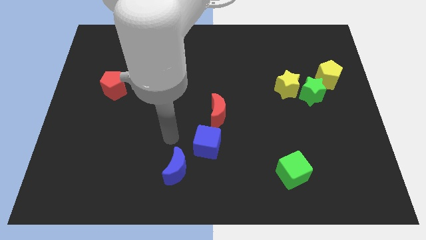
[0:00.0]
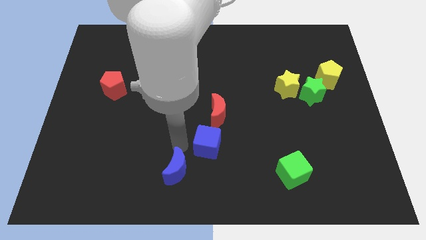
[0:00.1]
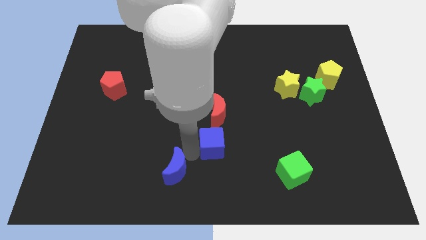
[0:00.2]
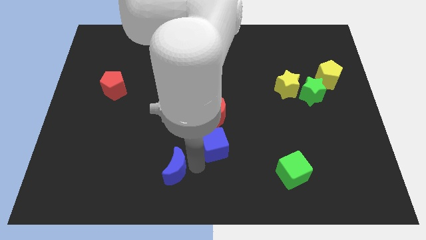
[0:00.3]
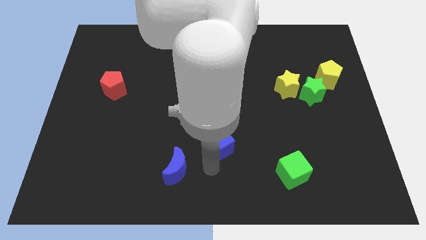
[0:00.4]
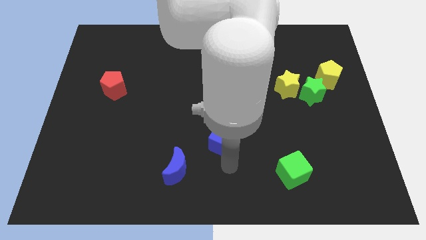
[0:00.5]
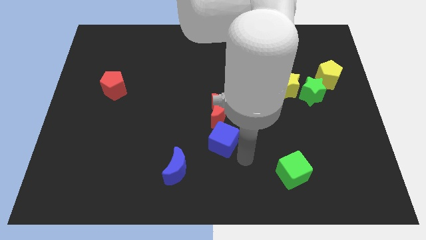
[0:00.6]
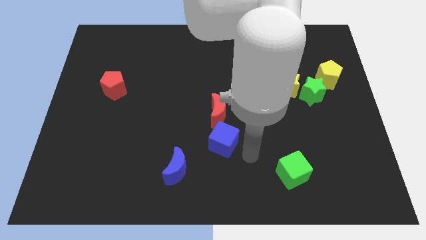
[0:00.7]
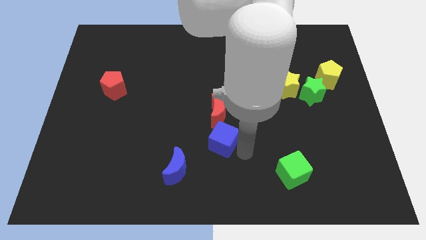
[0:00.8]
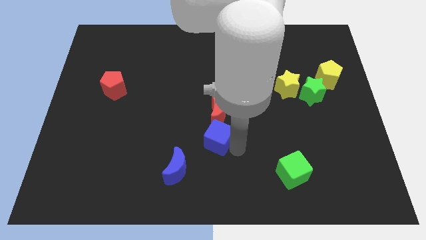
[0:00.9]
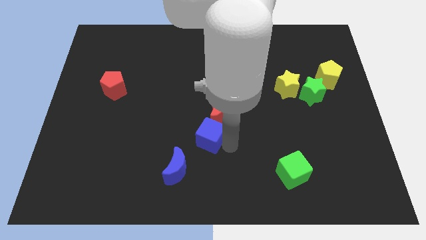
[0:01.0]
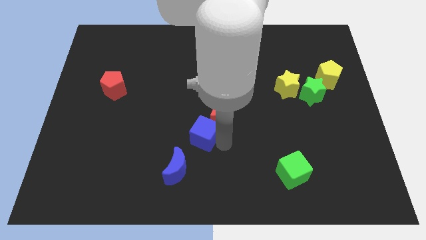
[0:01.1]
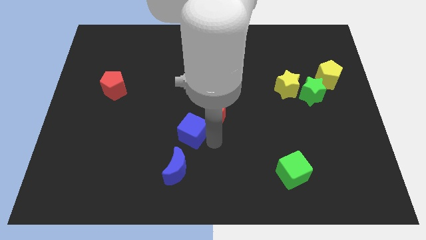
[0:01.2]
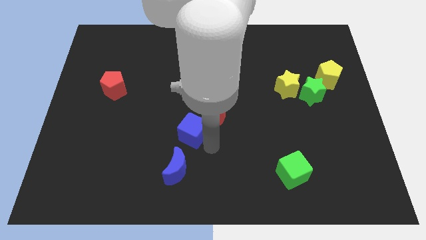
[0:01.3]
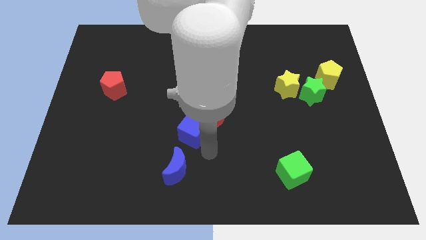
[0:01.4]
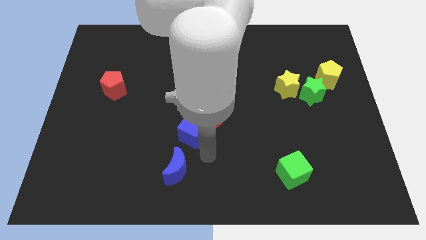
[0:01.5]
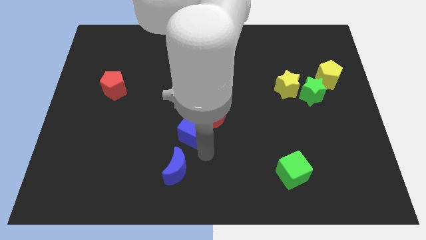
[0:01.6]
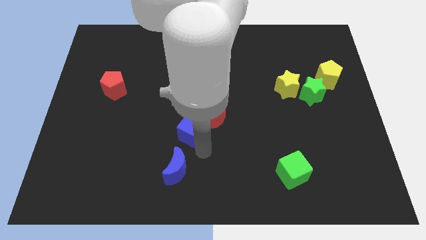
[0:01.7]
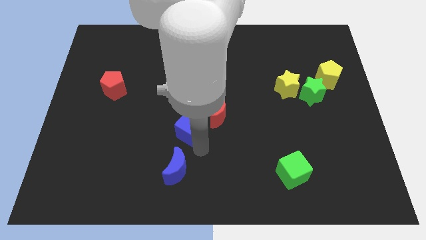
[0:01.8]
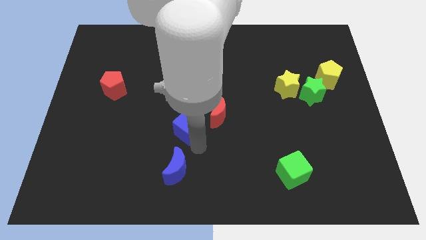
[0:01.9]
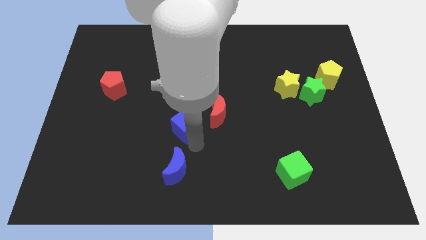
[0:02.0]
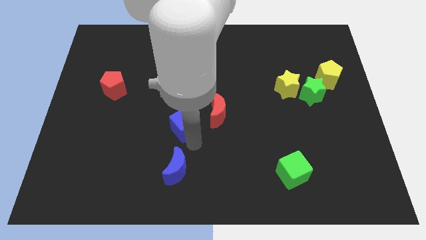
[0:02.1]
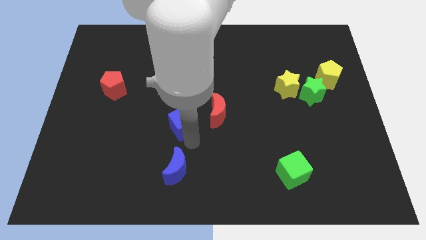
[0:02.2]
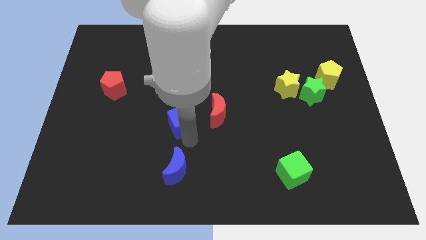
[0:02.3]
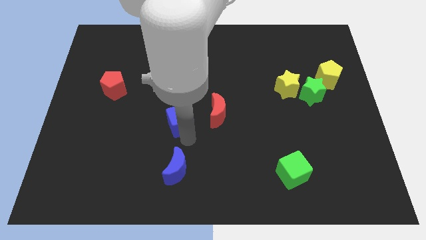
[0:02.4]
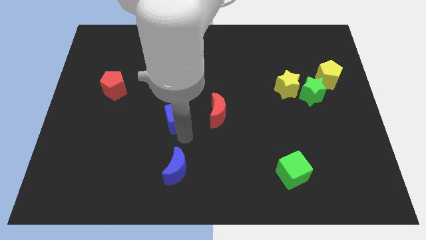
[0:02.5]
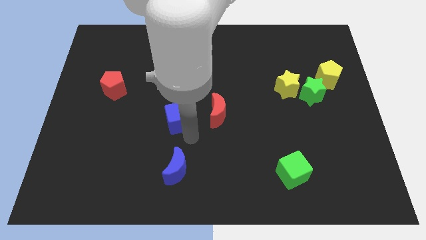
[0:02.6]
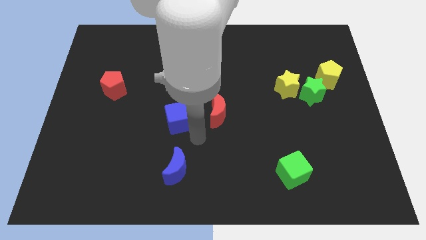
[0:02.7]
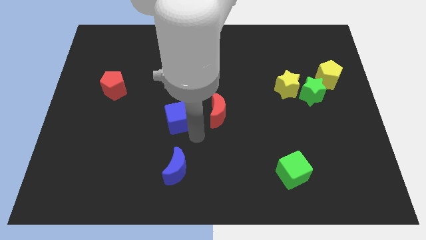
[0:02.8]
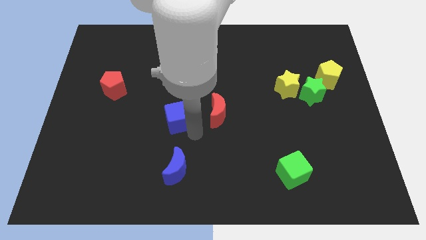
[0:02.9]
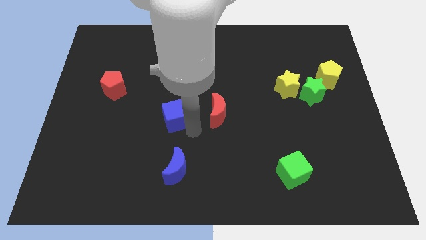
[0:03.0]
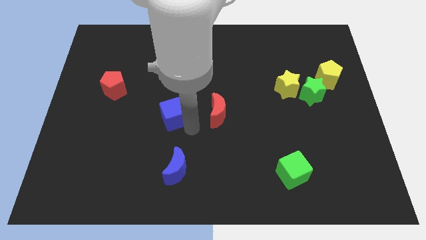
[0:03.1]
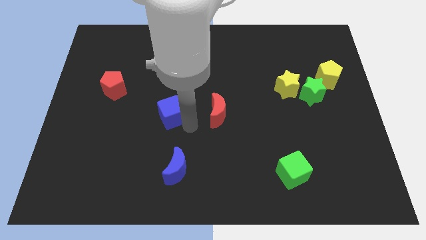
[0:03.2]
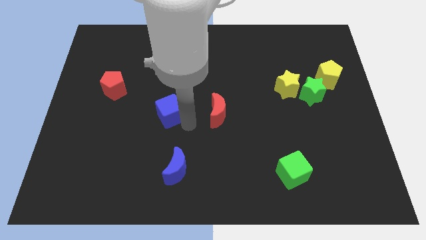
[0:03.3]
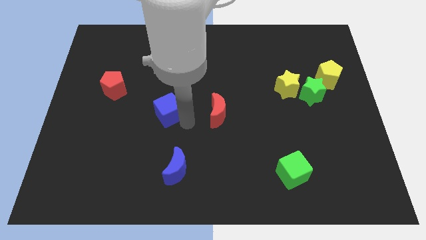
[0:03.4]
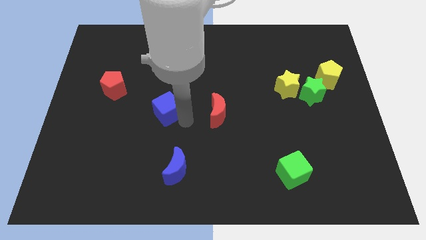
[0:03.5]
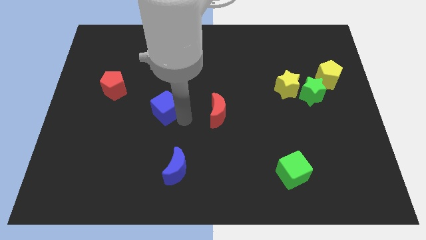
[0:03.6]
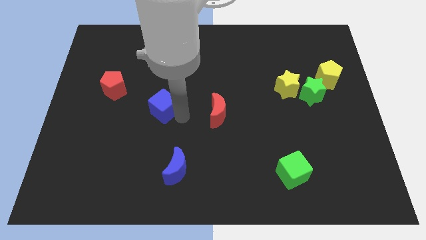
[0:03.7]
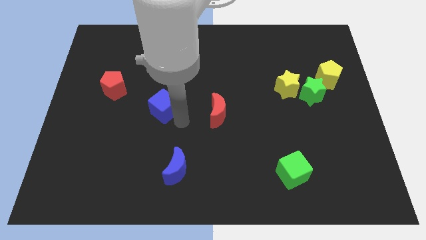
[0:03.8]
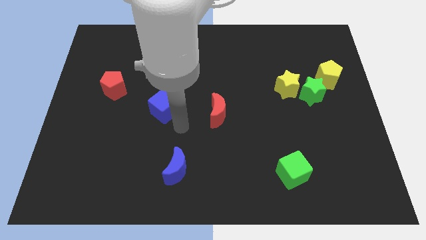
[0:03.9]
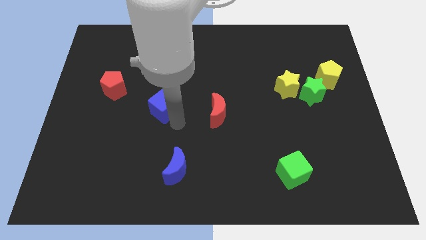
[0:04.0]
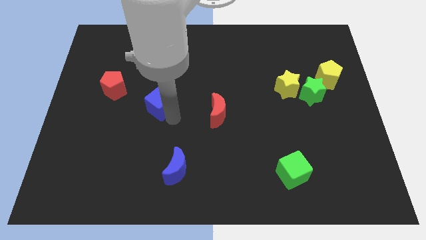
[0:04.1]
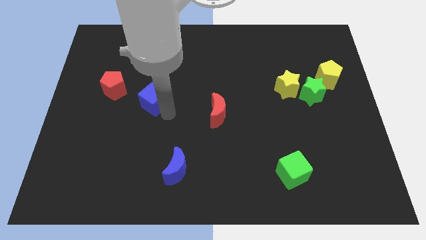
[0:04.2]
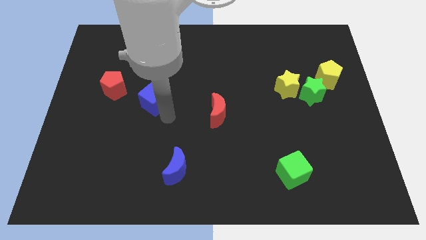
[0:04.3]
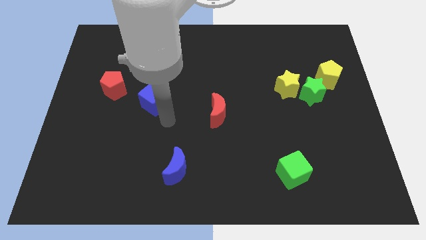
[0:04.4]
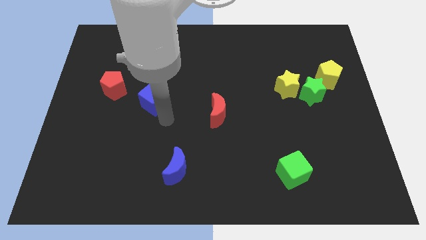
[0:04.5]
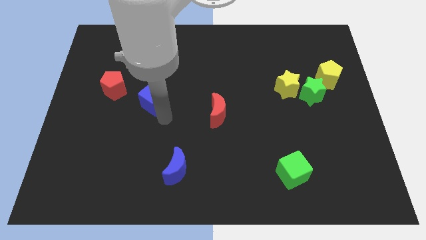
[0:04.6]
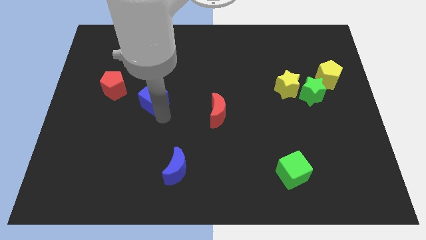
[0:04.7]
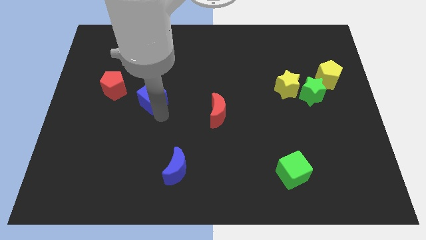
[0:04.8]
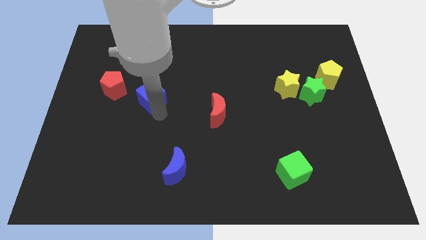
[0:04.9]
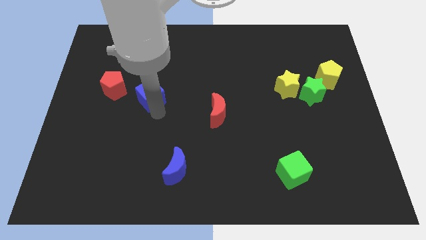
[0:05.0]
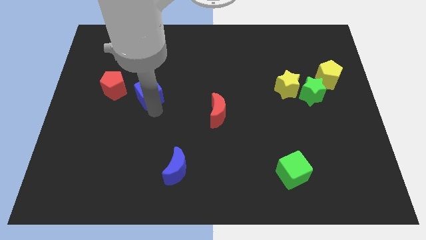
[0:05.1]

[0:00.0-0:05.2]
move the blue cube upwards and then left

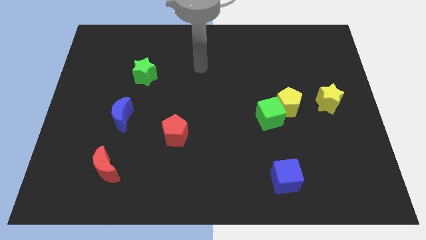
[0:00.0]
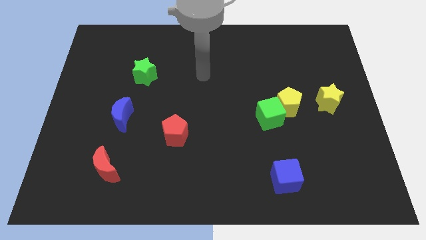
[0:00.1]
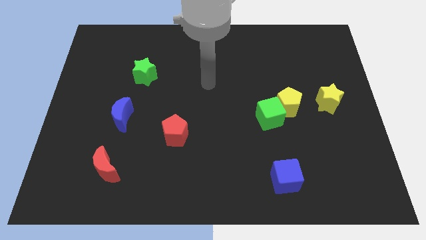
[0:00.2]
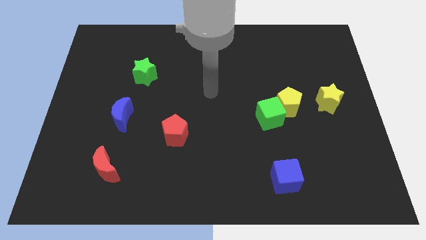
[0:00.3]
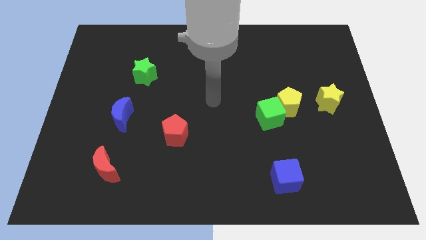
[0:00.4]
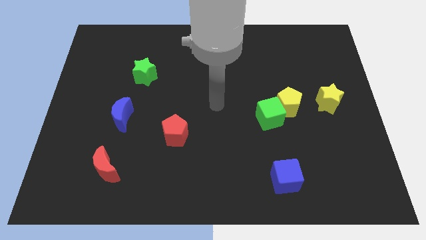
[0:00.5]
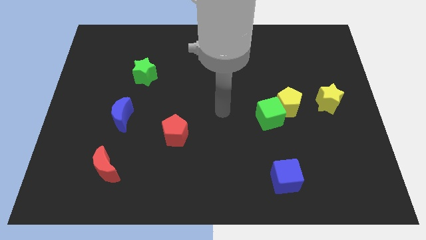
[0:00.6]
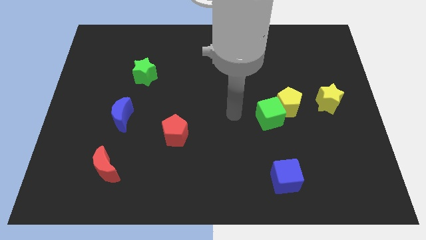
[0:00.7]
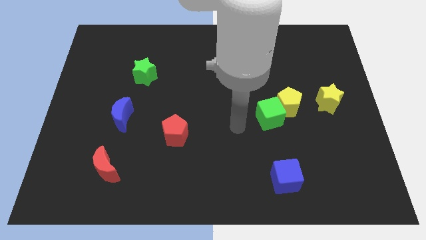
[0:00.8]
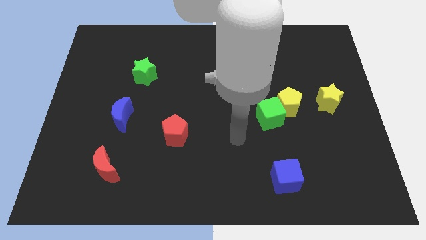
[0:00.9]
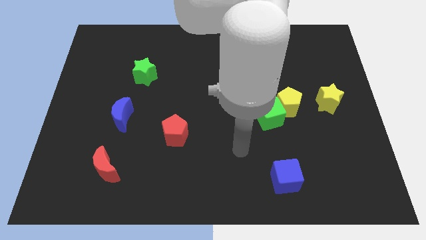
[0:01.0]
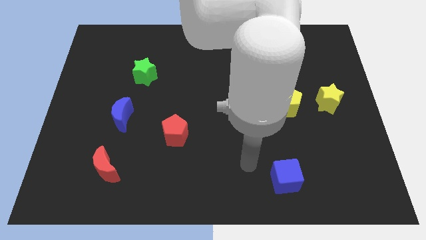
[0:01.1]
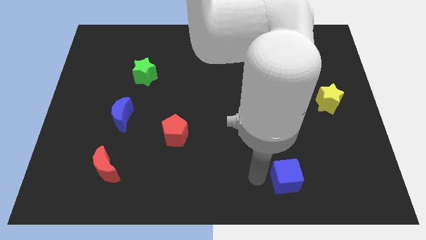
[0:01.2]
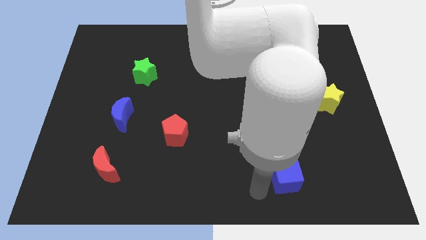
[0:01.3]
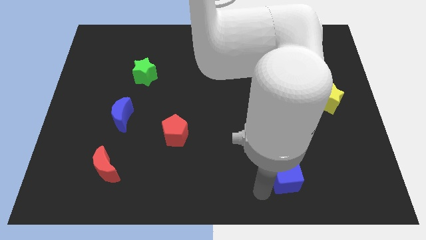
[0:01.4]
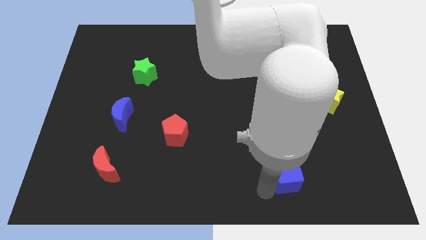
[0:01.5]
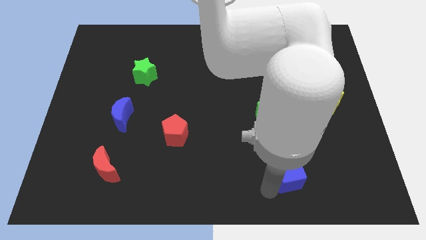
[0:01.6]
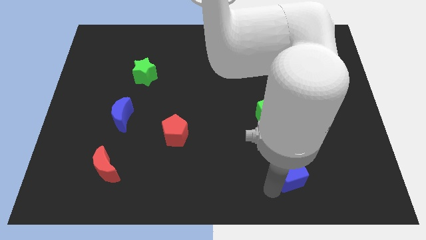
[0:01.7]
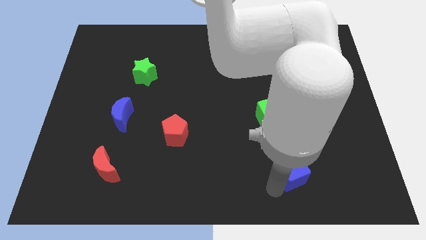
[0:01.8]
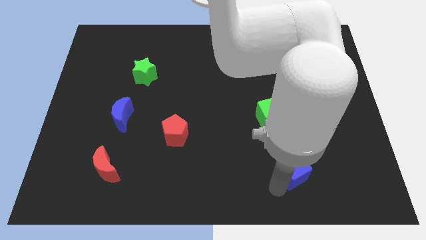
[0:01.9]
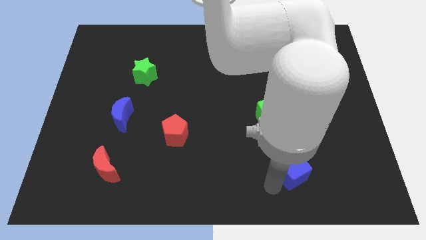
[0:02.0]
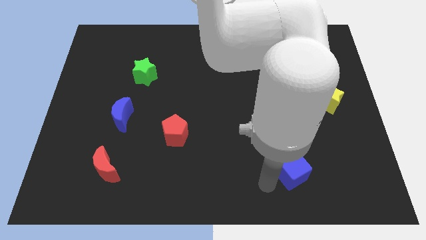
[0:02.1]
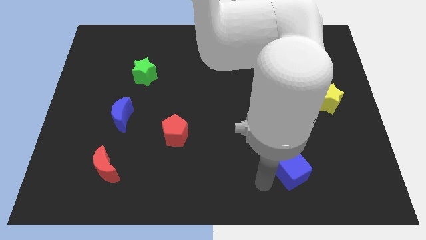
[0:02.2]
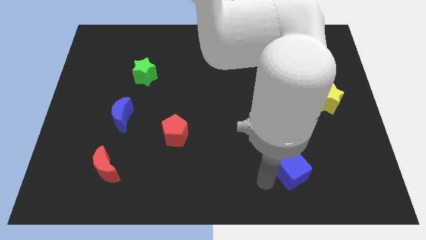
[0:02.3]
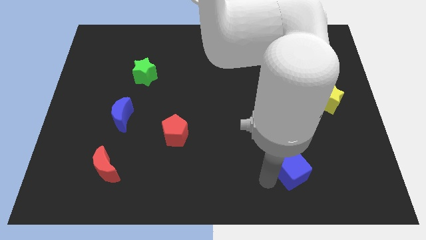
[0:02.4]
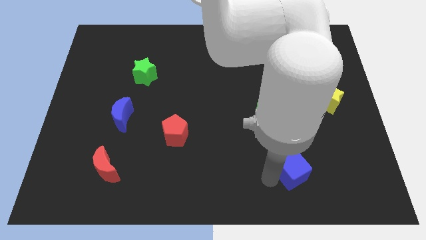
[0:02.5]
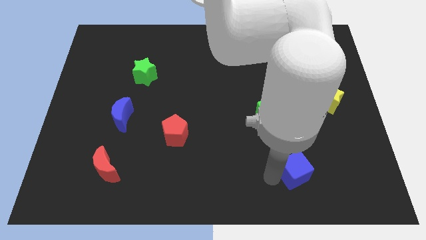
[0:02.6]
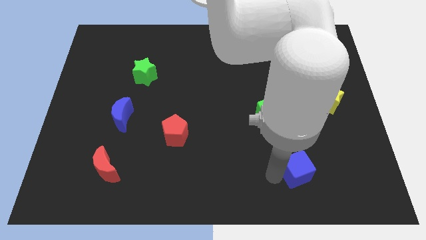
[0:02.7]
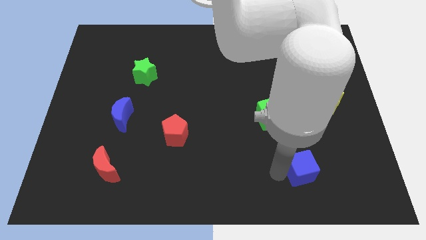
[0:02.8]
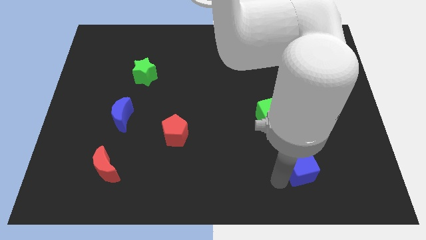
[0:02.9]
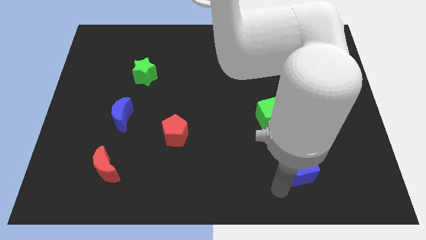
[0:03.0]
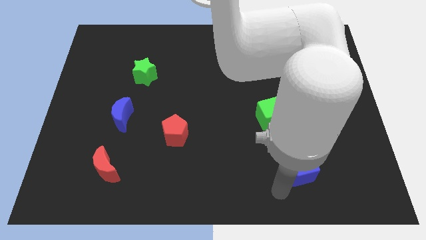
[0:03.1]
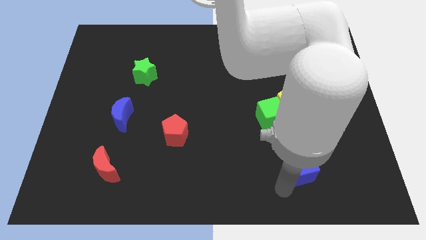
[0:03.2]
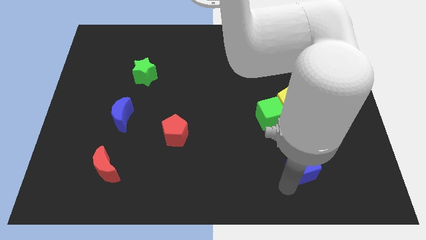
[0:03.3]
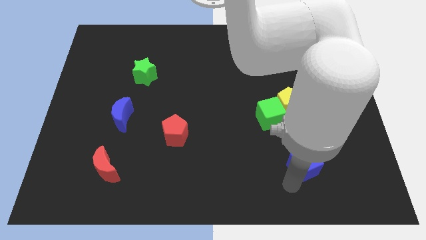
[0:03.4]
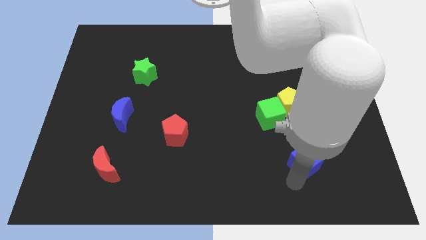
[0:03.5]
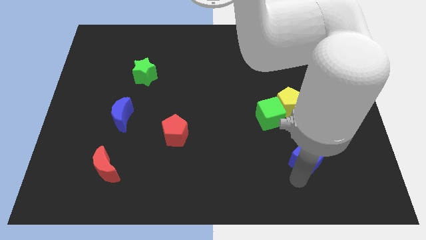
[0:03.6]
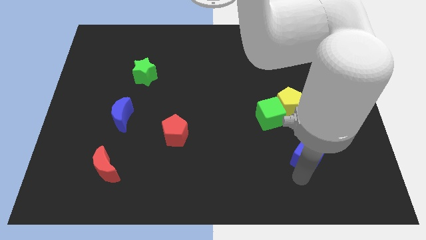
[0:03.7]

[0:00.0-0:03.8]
push the blue cube upwards and to the right a little
